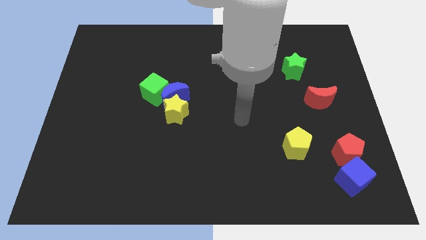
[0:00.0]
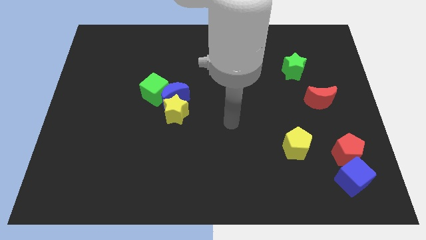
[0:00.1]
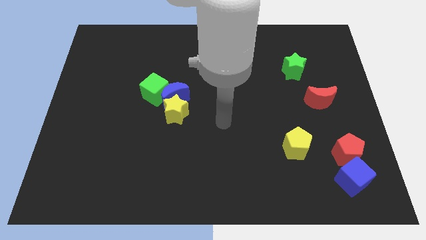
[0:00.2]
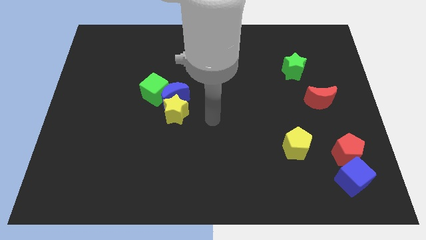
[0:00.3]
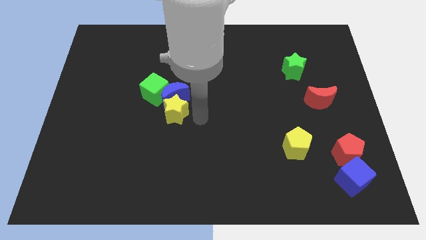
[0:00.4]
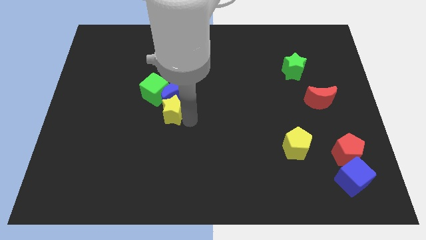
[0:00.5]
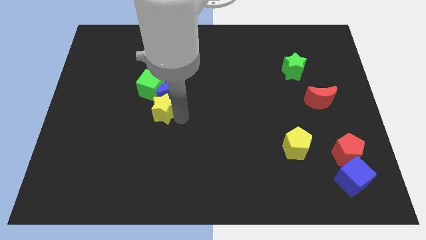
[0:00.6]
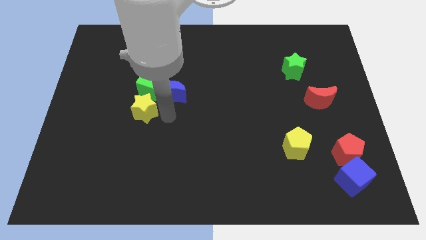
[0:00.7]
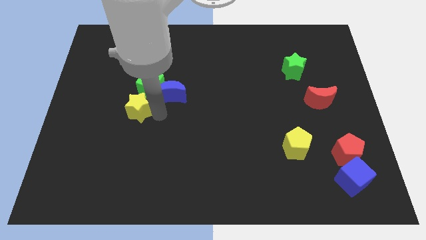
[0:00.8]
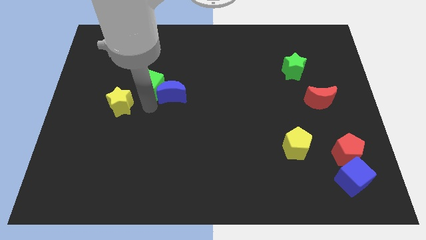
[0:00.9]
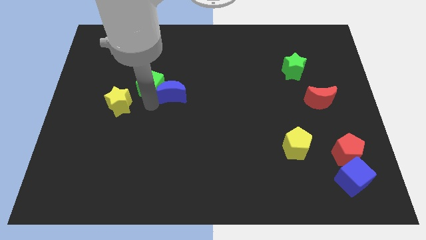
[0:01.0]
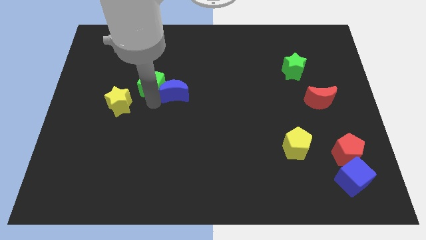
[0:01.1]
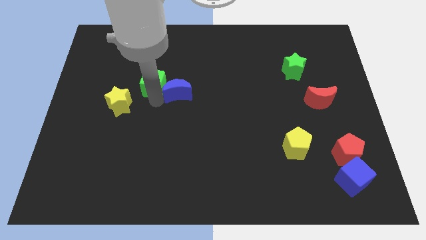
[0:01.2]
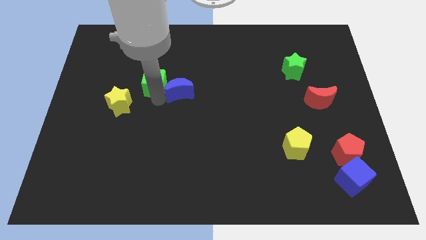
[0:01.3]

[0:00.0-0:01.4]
move the blue moon away from the yellow star and green cube

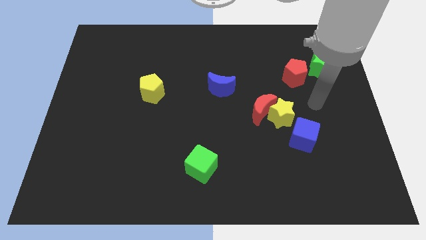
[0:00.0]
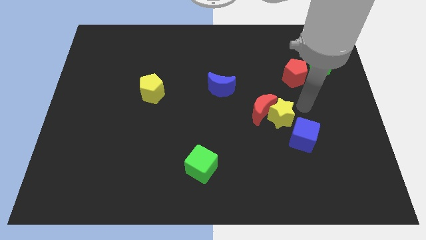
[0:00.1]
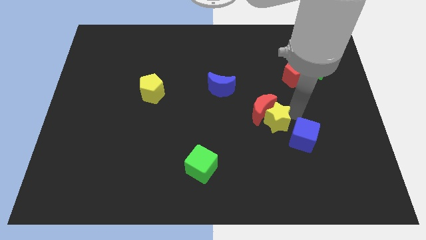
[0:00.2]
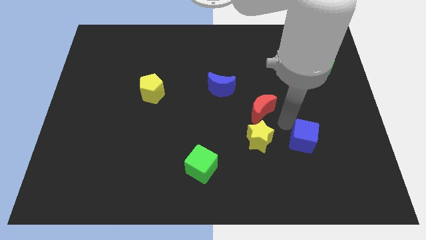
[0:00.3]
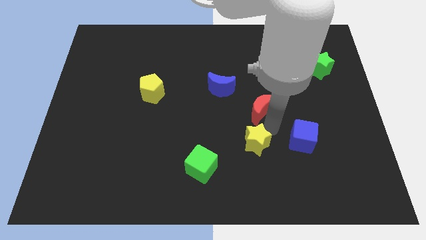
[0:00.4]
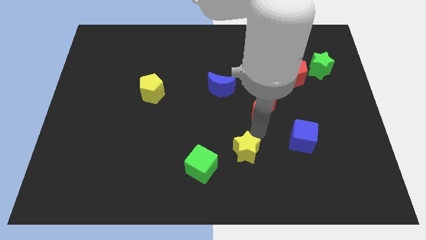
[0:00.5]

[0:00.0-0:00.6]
move the red moon away from the yellow star

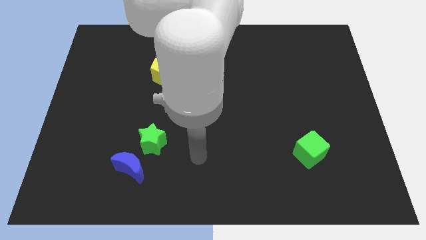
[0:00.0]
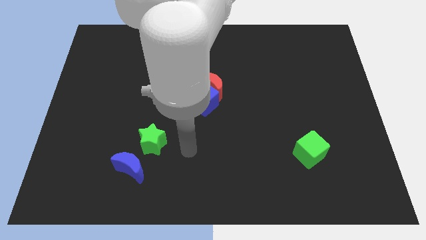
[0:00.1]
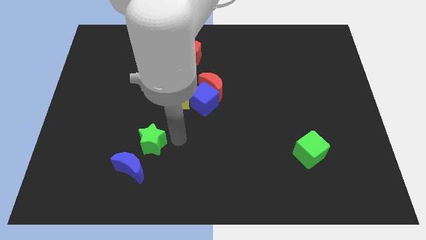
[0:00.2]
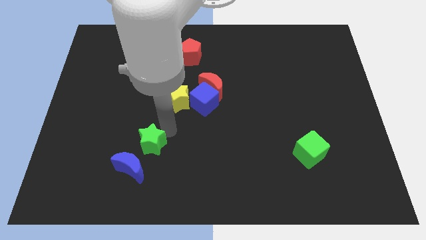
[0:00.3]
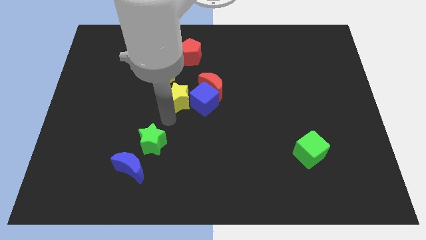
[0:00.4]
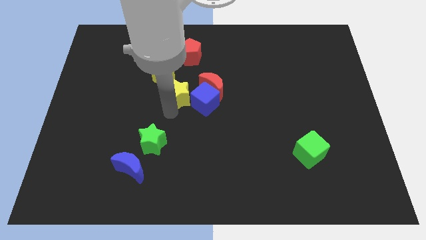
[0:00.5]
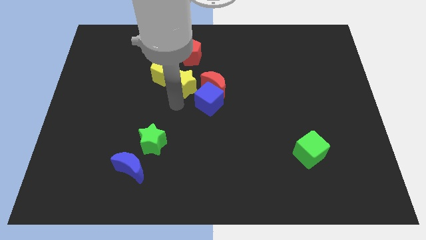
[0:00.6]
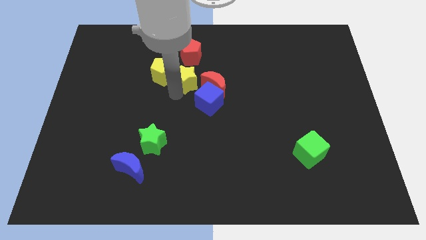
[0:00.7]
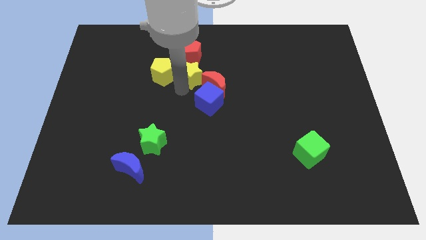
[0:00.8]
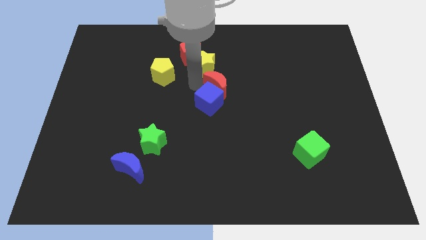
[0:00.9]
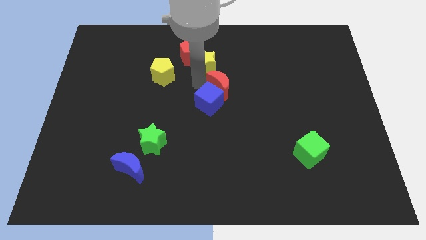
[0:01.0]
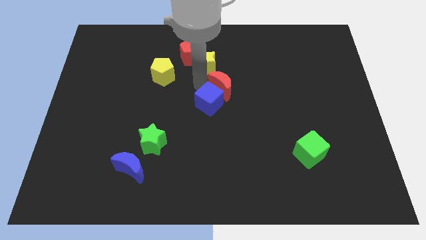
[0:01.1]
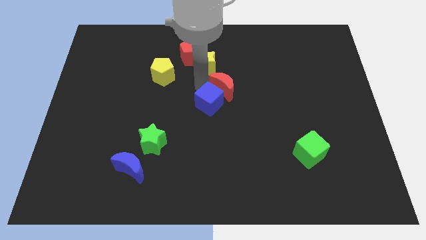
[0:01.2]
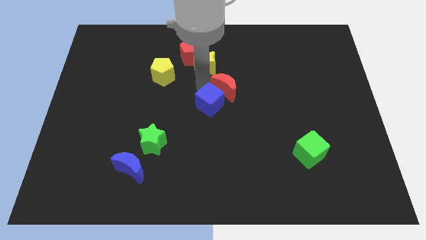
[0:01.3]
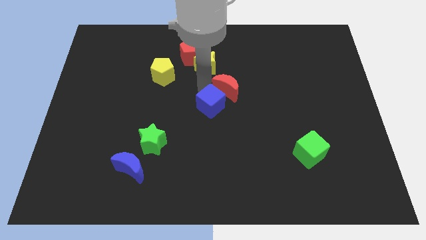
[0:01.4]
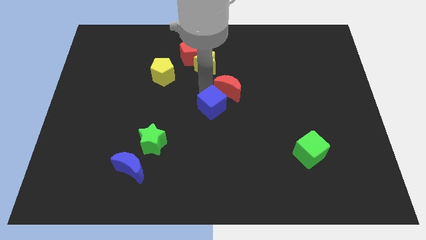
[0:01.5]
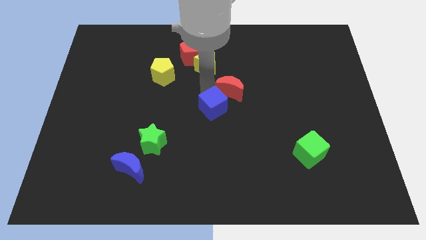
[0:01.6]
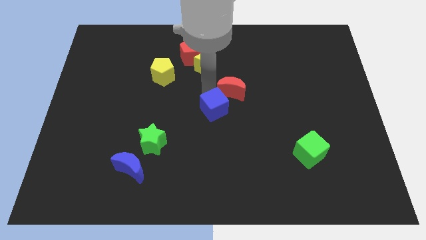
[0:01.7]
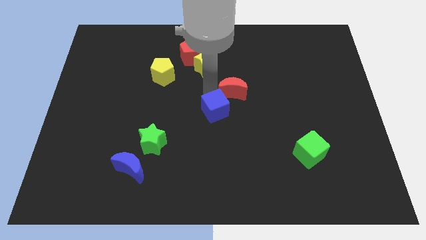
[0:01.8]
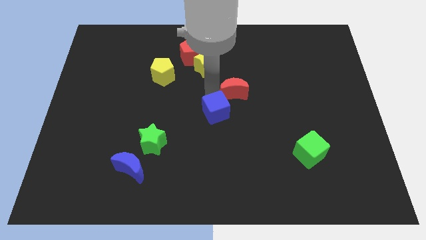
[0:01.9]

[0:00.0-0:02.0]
separate the blue cube from the red moon and yellow star

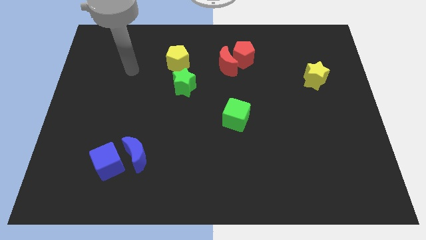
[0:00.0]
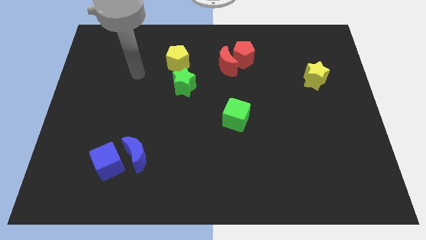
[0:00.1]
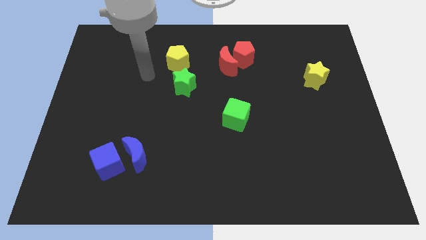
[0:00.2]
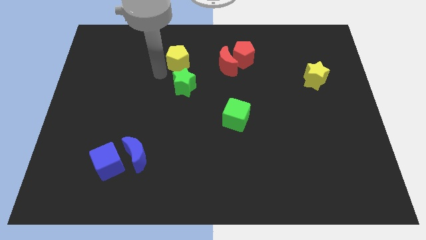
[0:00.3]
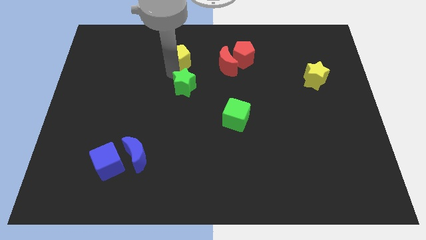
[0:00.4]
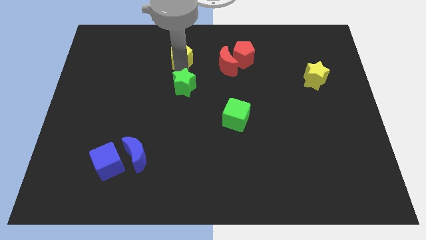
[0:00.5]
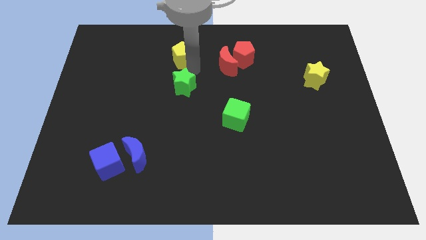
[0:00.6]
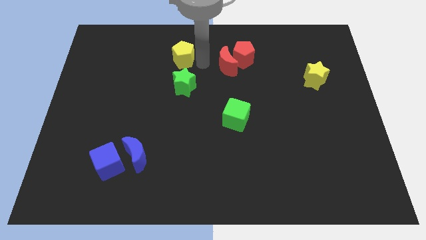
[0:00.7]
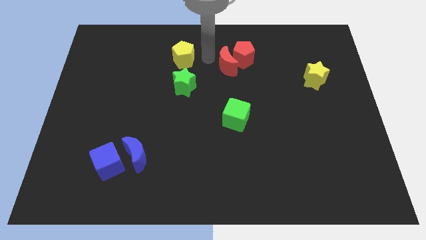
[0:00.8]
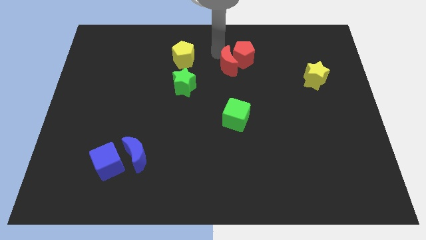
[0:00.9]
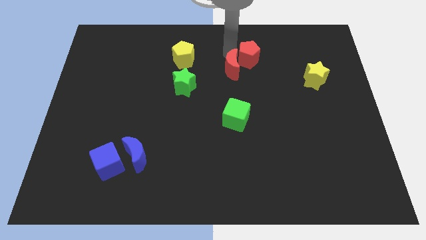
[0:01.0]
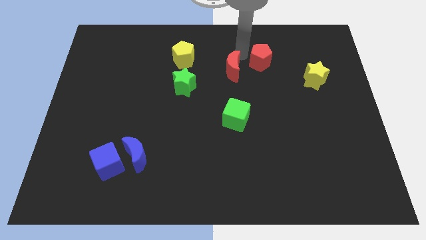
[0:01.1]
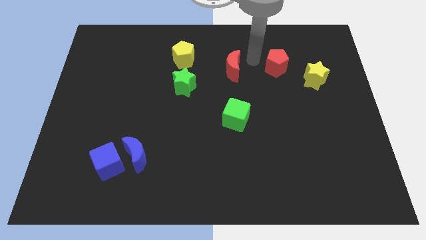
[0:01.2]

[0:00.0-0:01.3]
pull the red moon apart from the red pentagon

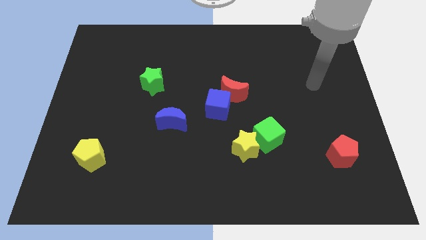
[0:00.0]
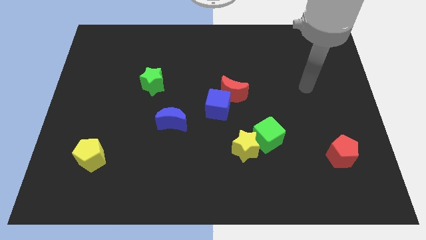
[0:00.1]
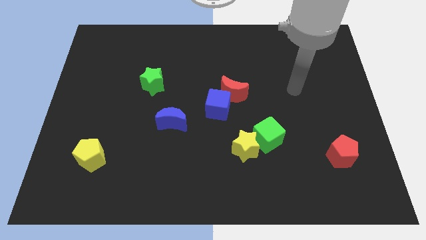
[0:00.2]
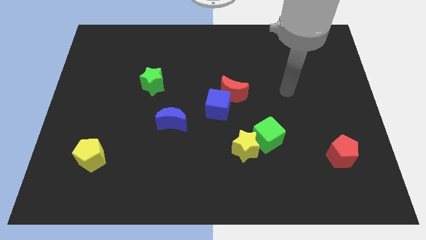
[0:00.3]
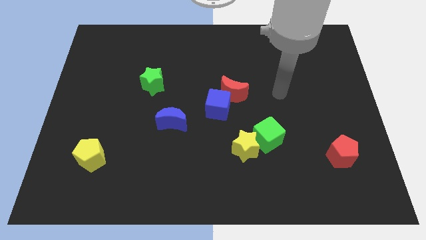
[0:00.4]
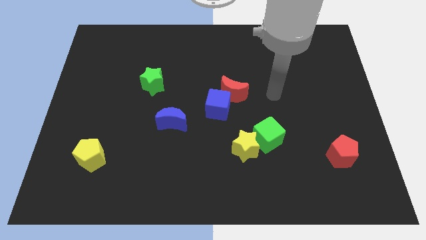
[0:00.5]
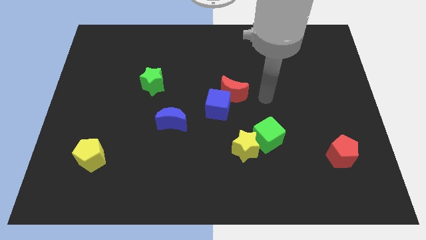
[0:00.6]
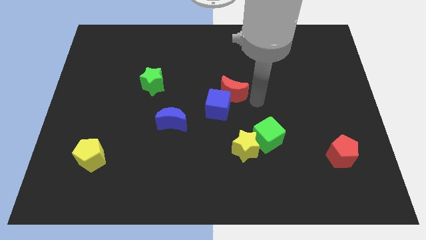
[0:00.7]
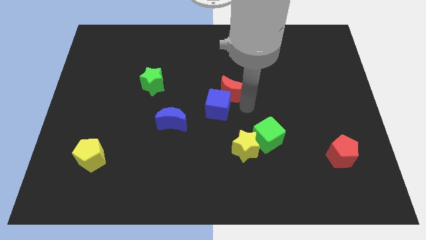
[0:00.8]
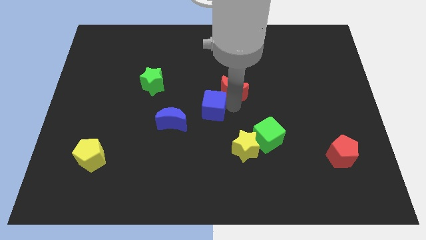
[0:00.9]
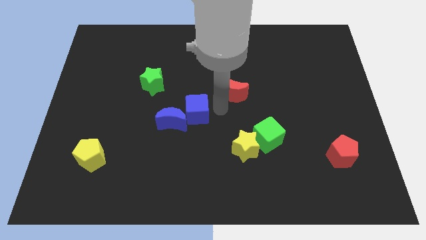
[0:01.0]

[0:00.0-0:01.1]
move the red moon away from the blue cube

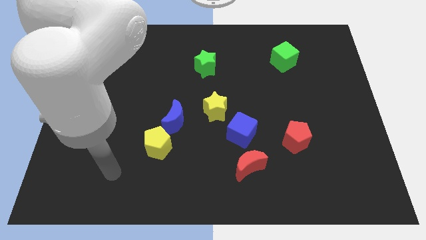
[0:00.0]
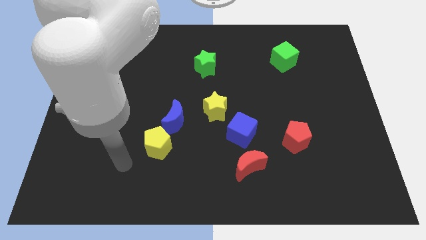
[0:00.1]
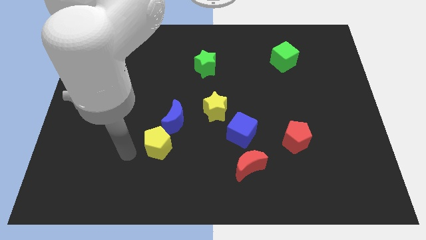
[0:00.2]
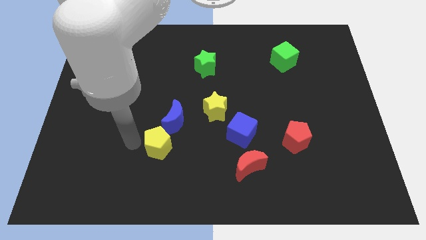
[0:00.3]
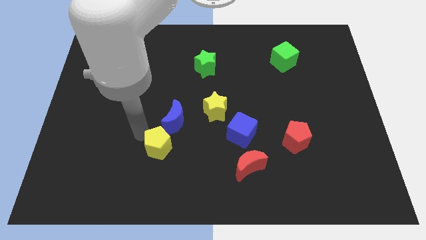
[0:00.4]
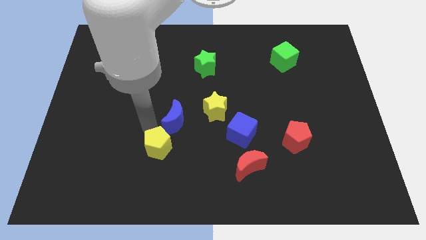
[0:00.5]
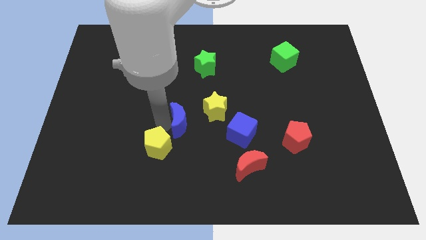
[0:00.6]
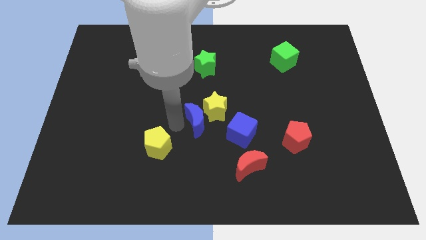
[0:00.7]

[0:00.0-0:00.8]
pull the yellow pentagon apart from the blue moon

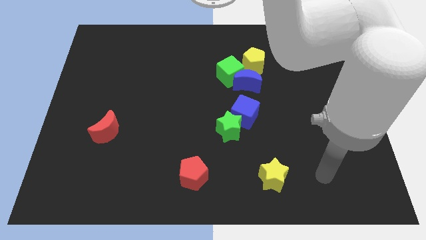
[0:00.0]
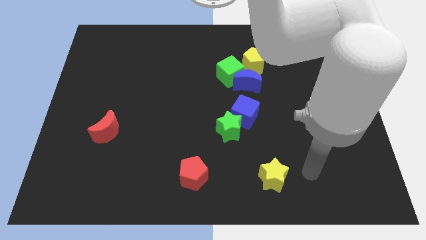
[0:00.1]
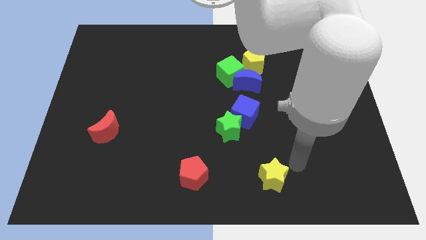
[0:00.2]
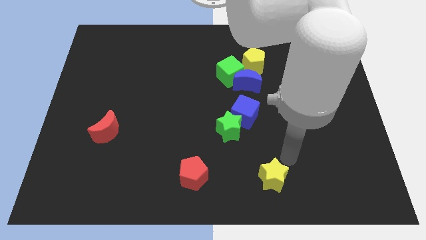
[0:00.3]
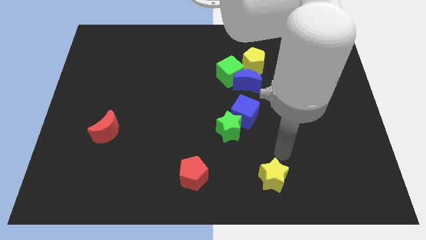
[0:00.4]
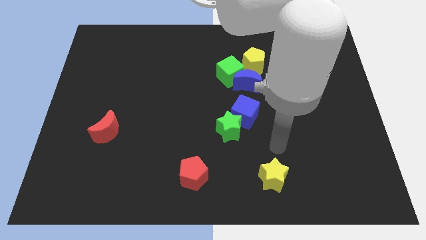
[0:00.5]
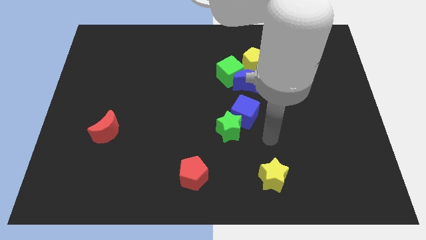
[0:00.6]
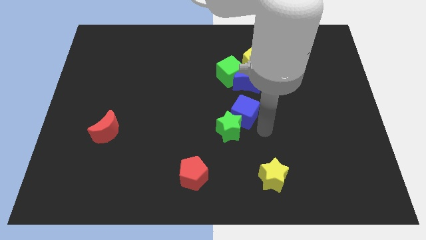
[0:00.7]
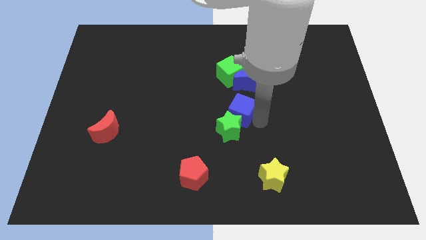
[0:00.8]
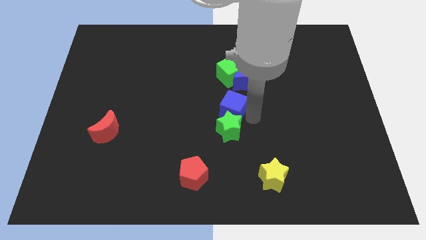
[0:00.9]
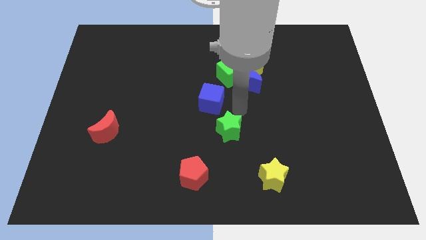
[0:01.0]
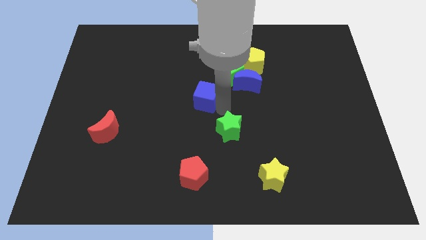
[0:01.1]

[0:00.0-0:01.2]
pull the green star apart from the blue cube

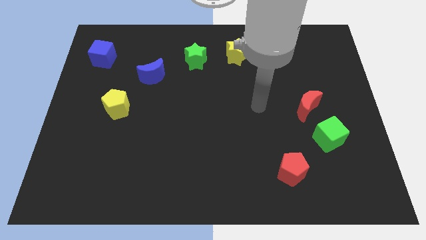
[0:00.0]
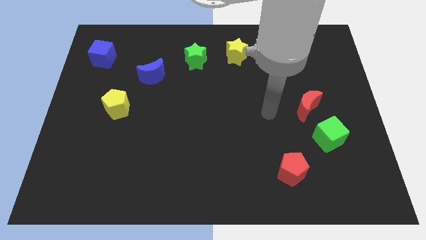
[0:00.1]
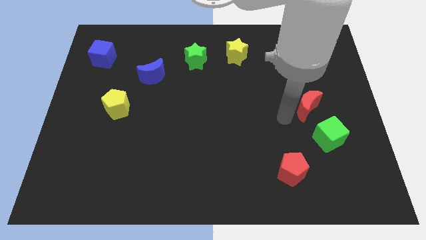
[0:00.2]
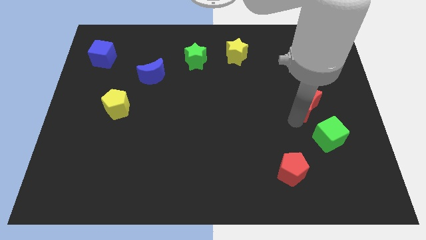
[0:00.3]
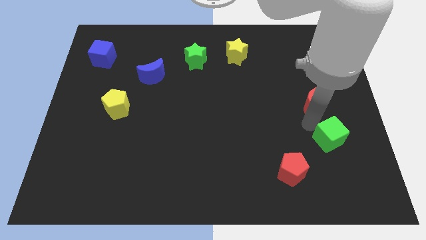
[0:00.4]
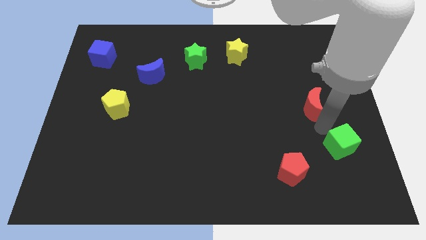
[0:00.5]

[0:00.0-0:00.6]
separate the red moon from the green cube

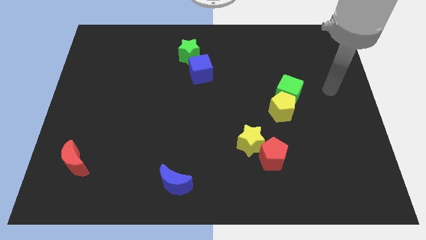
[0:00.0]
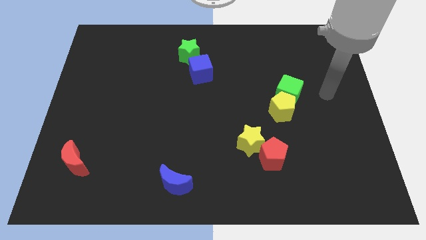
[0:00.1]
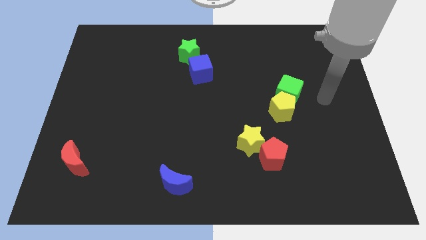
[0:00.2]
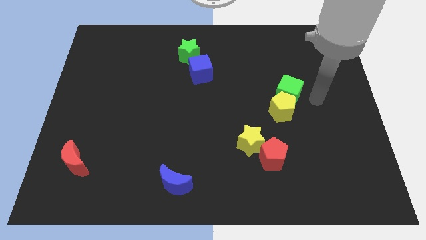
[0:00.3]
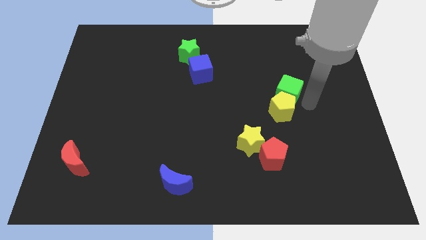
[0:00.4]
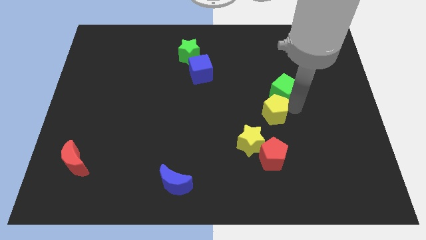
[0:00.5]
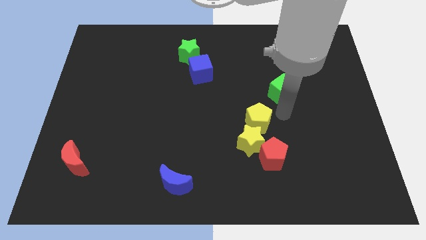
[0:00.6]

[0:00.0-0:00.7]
separate the green cube from the yellow pentagon
